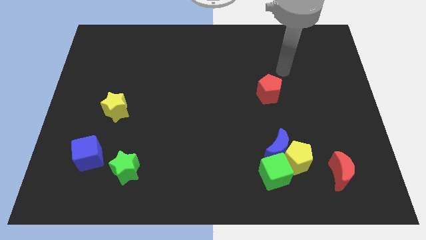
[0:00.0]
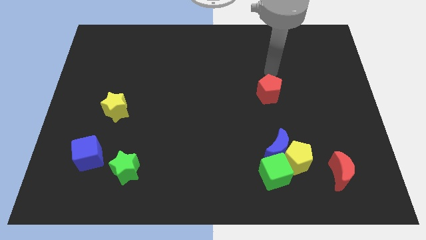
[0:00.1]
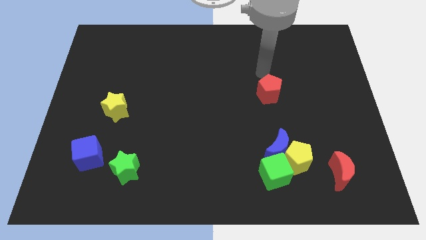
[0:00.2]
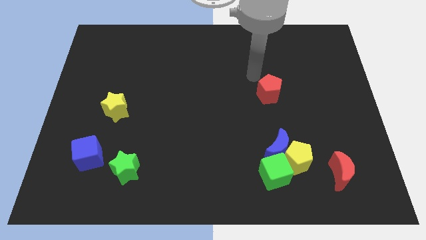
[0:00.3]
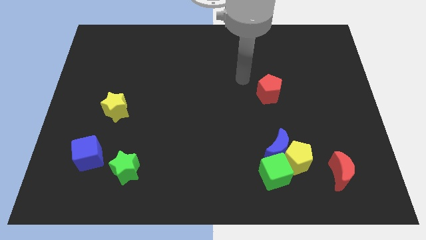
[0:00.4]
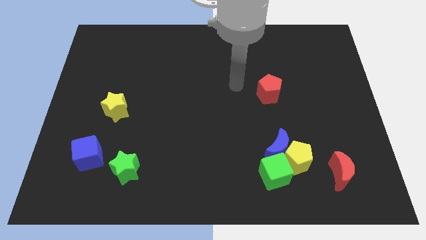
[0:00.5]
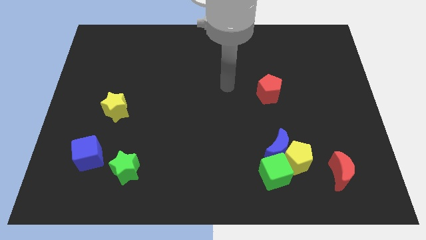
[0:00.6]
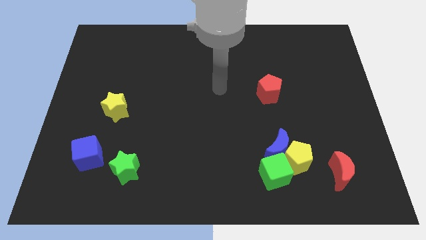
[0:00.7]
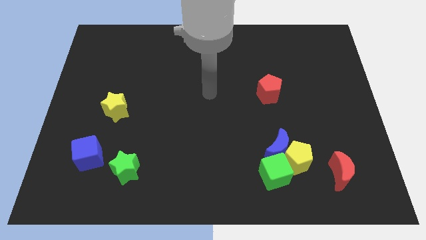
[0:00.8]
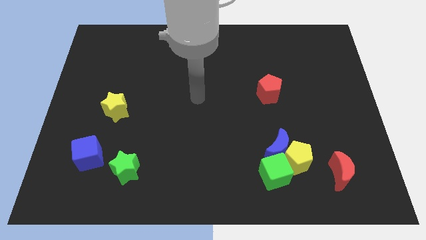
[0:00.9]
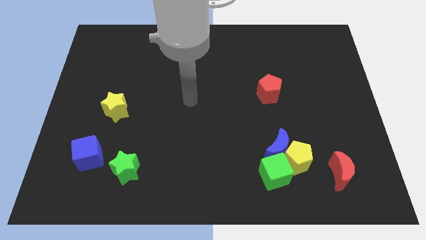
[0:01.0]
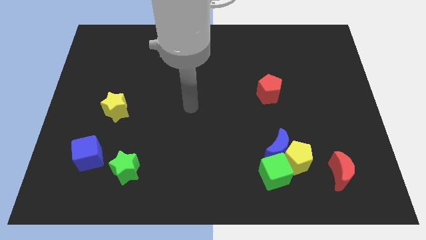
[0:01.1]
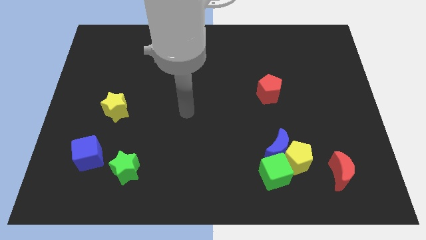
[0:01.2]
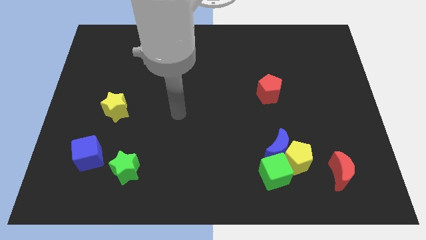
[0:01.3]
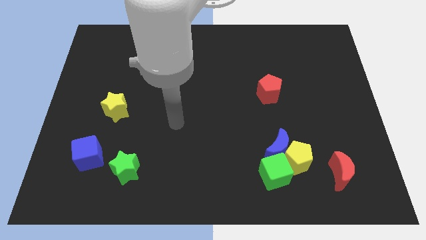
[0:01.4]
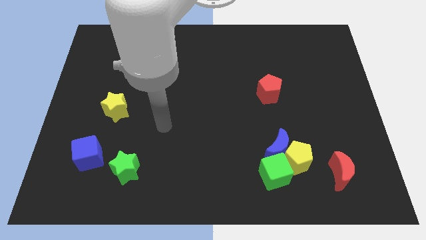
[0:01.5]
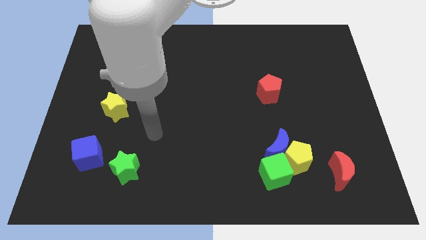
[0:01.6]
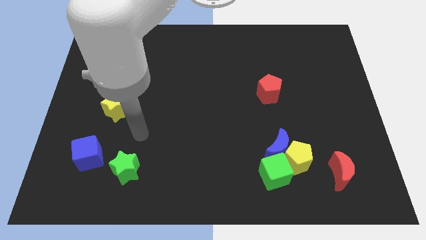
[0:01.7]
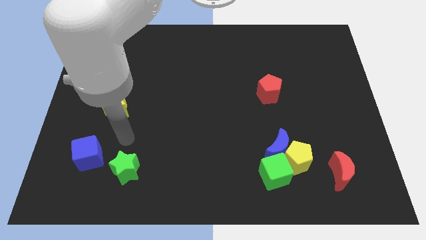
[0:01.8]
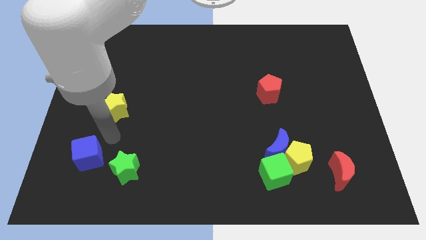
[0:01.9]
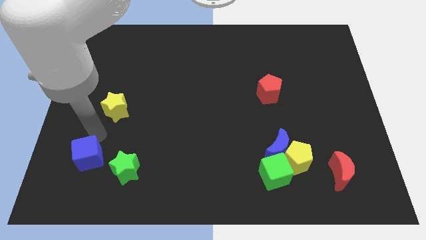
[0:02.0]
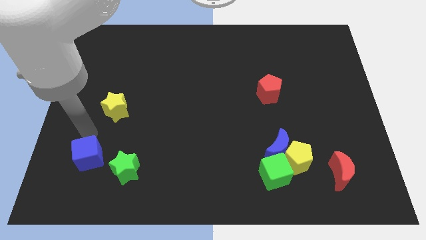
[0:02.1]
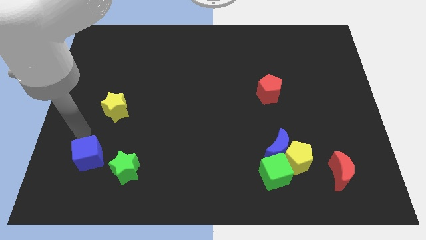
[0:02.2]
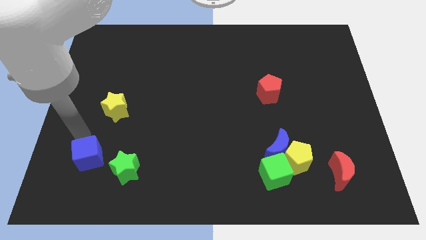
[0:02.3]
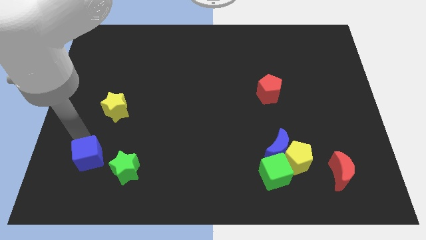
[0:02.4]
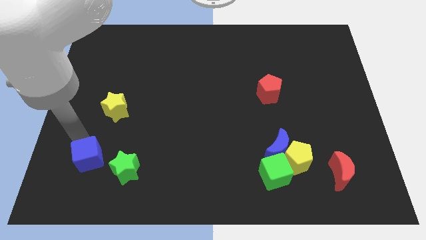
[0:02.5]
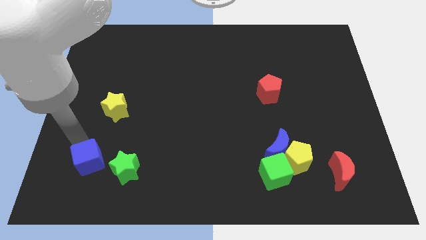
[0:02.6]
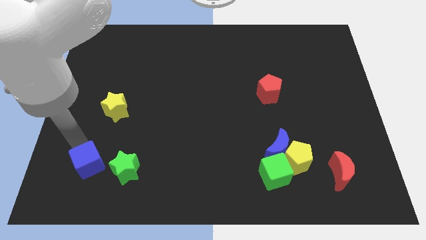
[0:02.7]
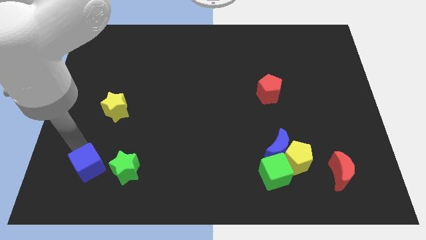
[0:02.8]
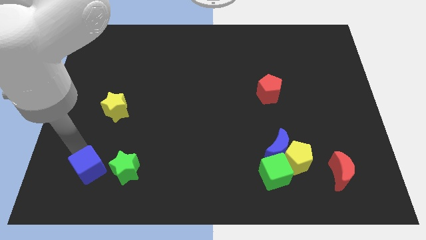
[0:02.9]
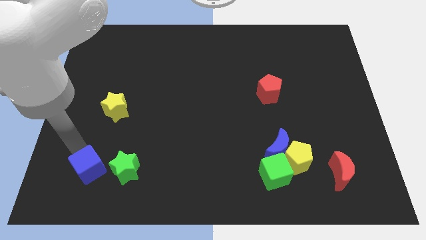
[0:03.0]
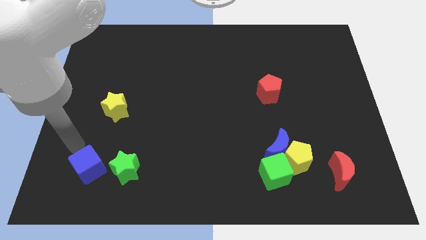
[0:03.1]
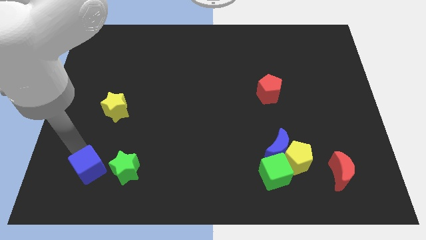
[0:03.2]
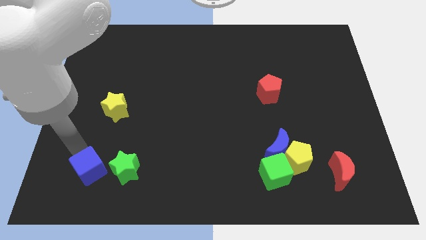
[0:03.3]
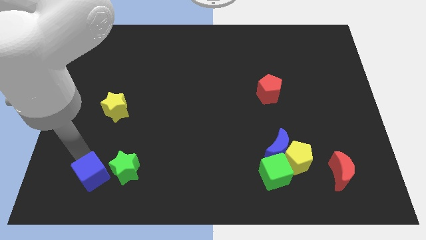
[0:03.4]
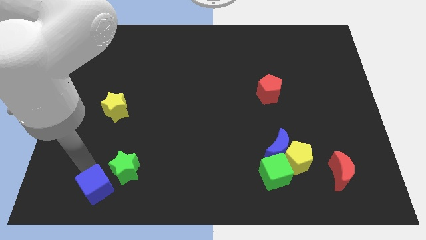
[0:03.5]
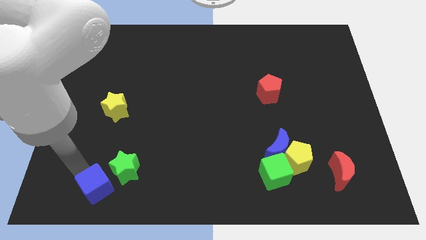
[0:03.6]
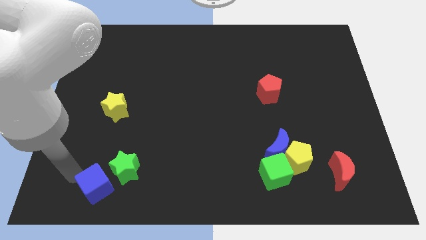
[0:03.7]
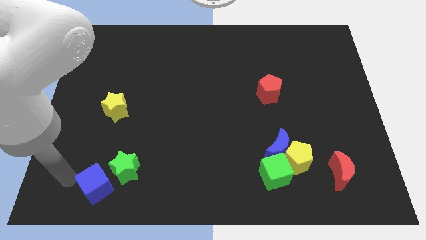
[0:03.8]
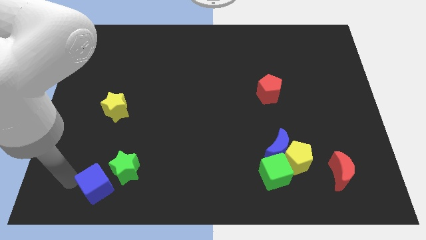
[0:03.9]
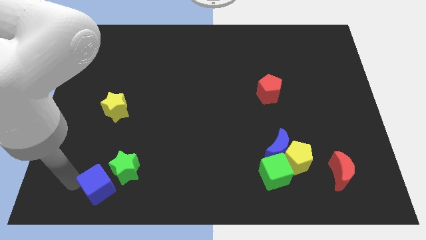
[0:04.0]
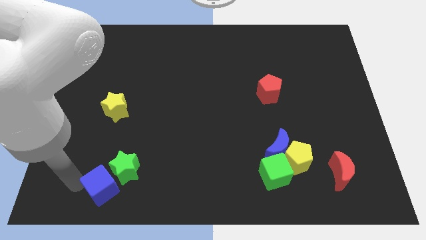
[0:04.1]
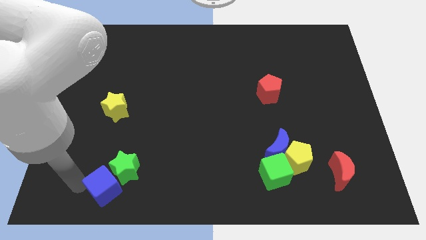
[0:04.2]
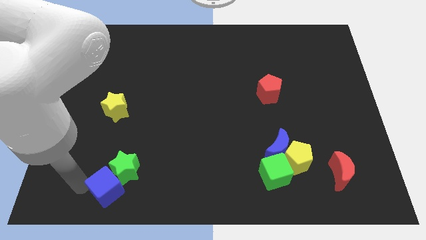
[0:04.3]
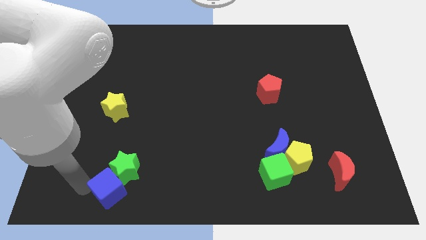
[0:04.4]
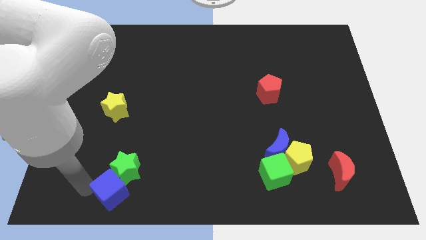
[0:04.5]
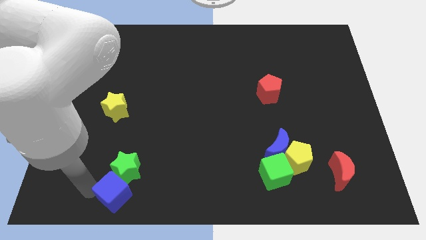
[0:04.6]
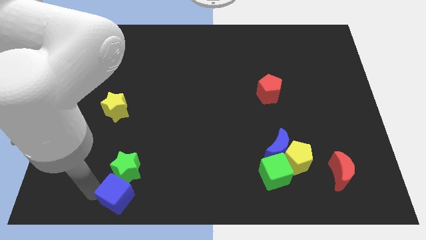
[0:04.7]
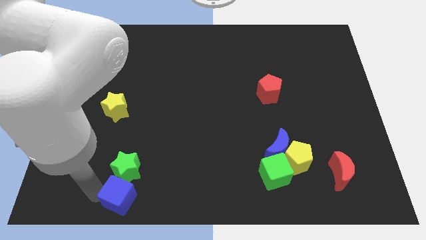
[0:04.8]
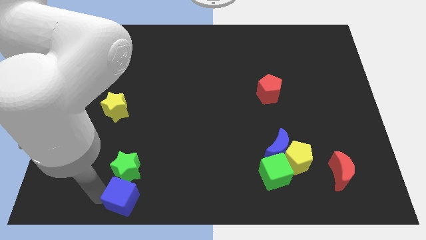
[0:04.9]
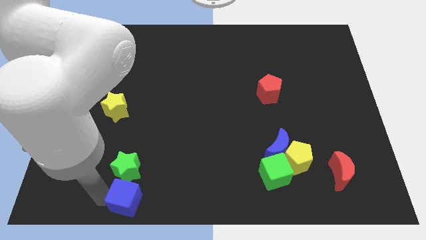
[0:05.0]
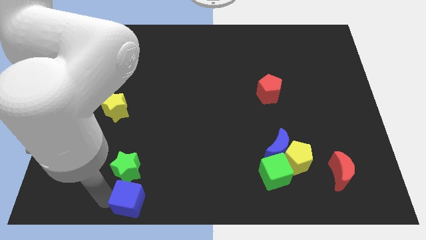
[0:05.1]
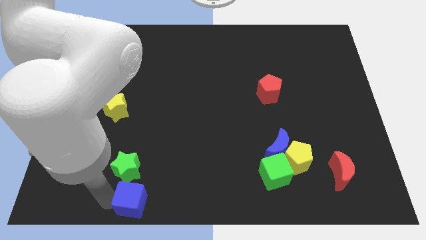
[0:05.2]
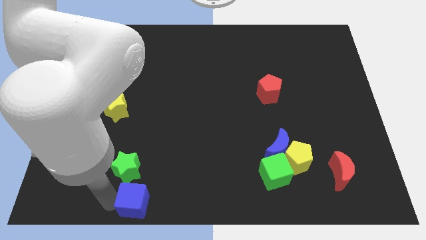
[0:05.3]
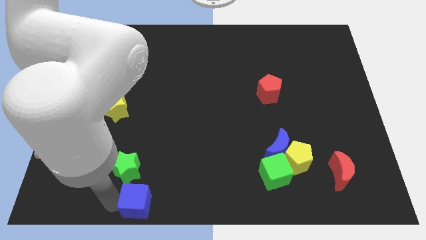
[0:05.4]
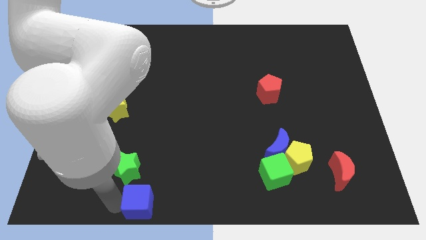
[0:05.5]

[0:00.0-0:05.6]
slide the blue cube to the bottom

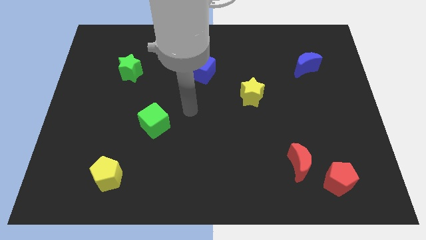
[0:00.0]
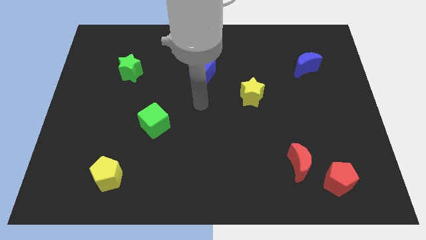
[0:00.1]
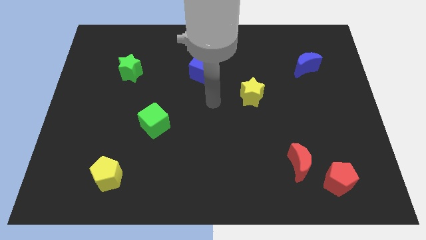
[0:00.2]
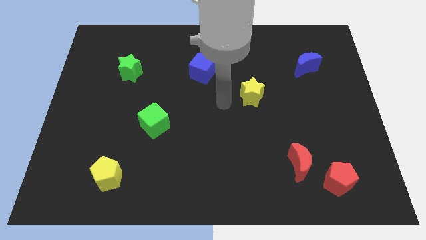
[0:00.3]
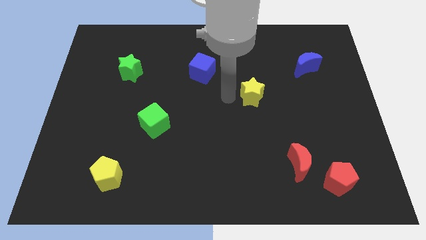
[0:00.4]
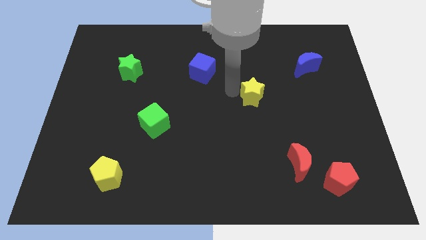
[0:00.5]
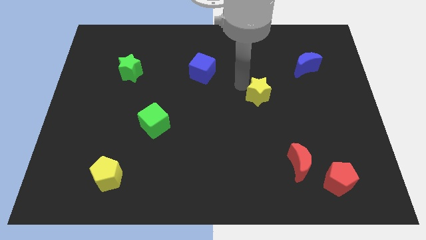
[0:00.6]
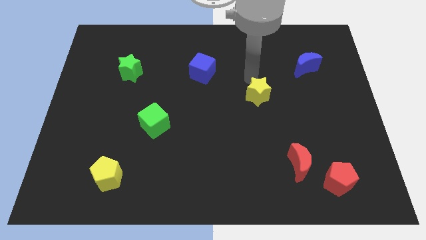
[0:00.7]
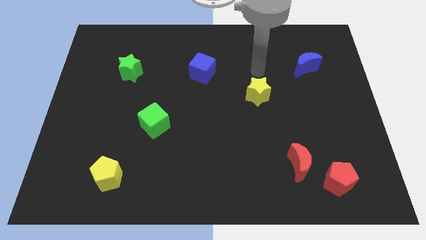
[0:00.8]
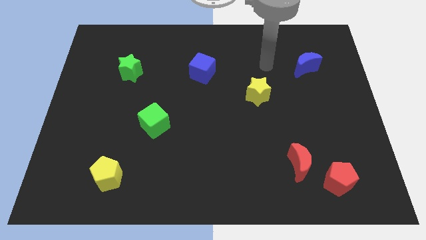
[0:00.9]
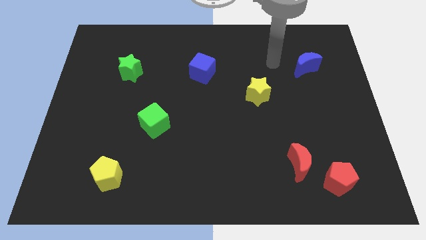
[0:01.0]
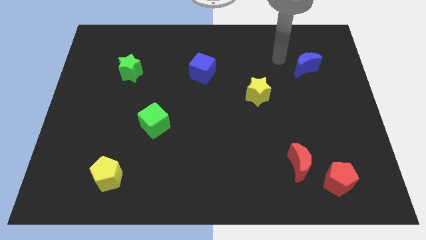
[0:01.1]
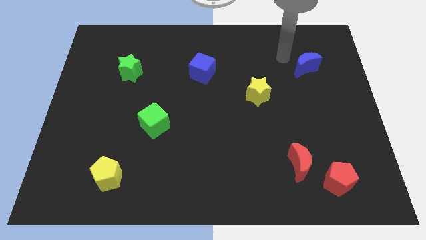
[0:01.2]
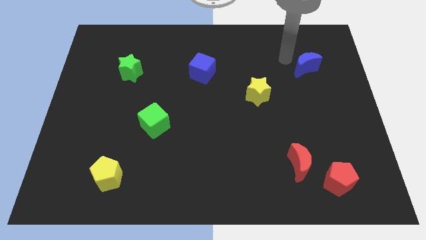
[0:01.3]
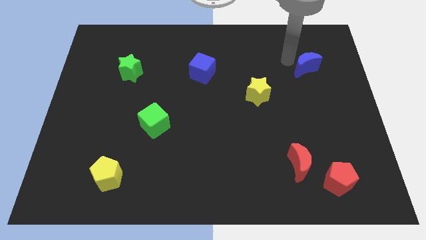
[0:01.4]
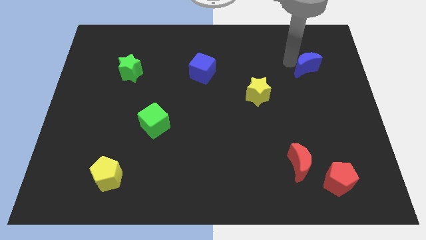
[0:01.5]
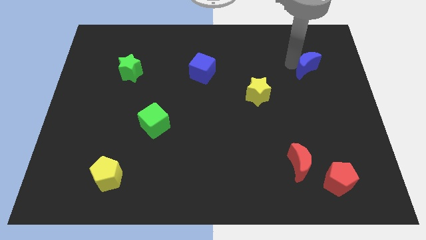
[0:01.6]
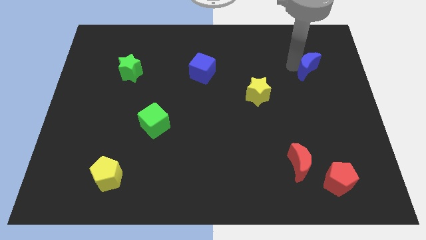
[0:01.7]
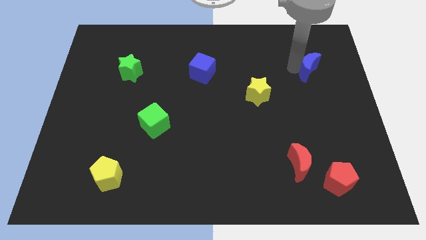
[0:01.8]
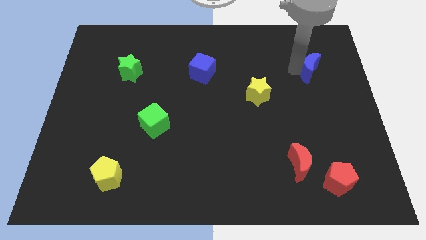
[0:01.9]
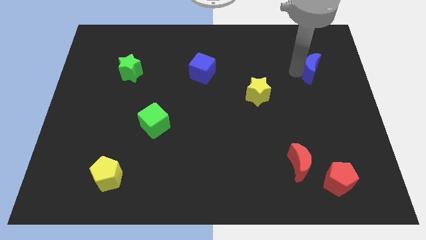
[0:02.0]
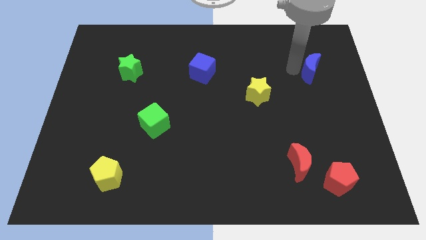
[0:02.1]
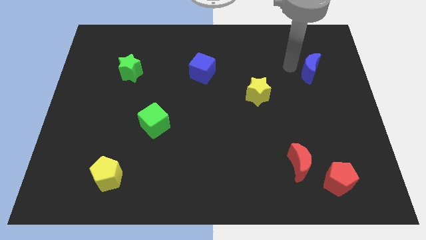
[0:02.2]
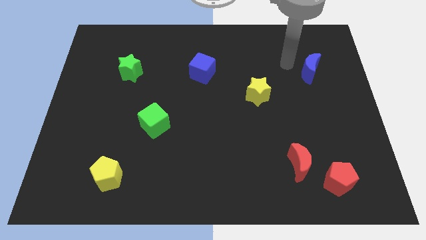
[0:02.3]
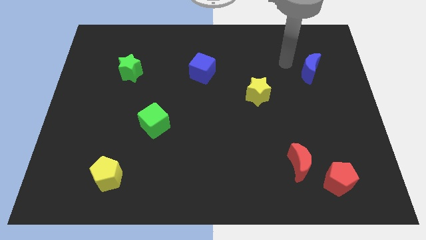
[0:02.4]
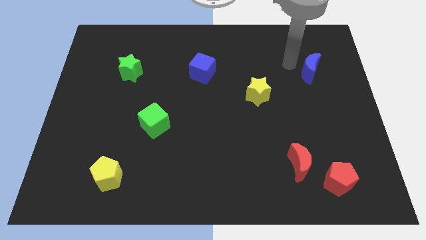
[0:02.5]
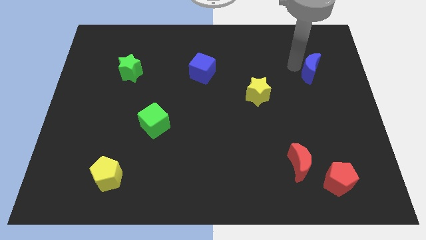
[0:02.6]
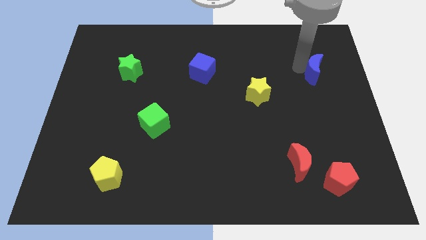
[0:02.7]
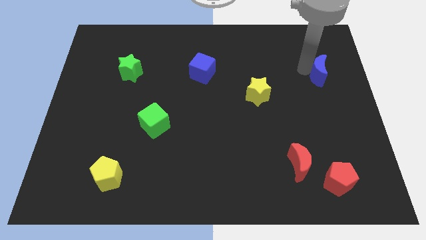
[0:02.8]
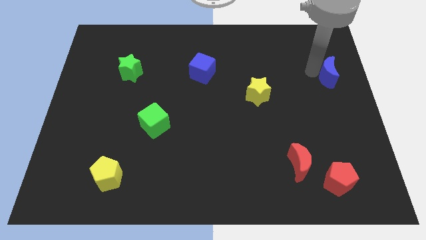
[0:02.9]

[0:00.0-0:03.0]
move the blue moon to the right side of the board
